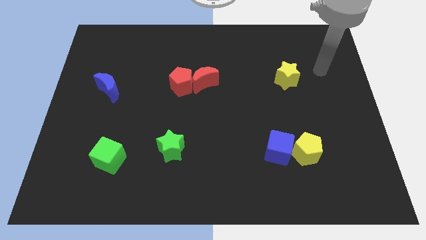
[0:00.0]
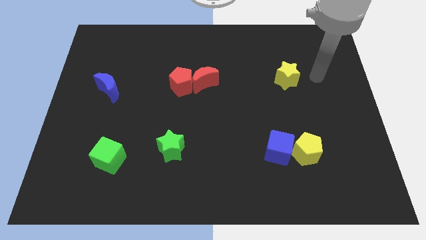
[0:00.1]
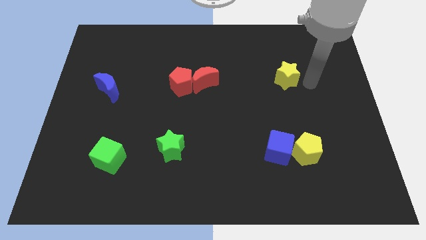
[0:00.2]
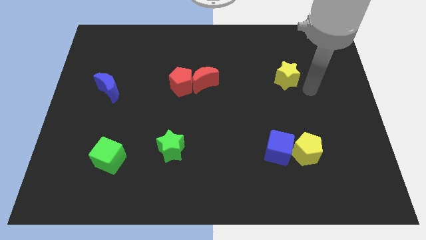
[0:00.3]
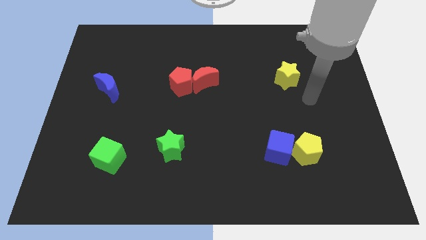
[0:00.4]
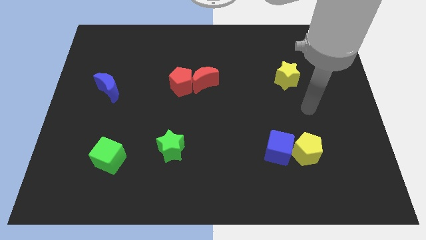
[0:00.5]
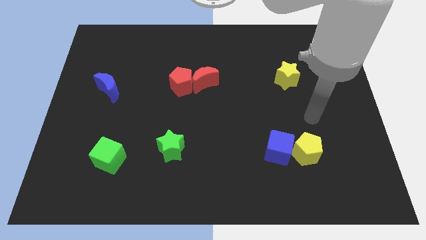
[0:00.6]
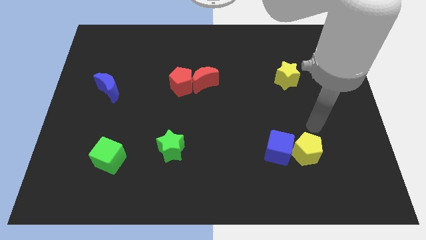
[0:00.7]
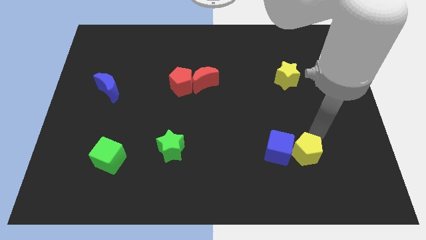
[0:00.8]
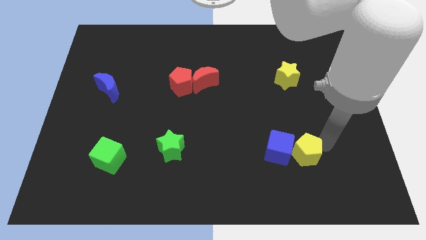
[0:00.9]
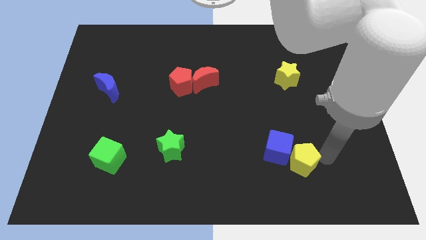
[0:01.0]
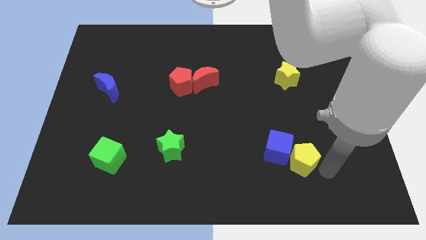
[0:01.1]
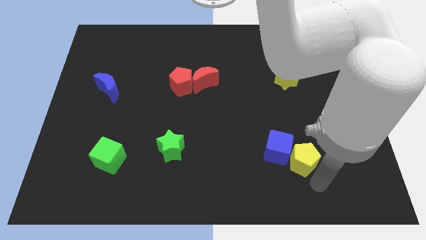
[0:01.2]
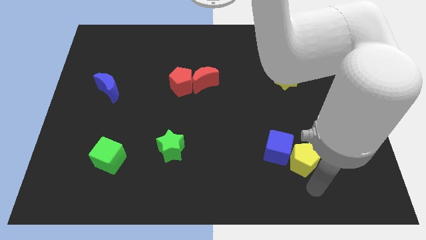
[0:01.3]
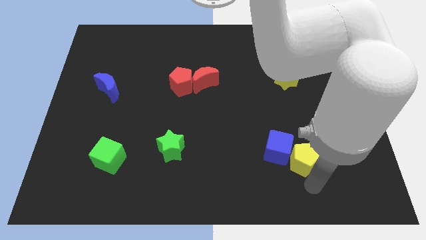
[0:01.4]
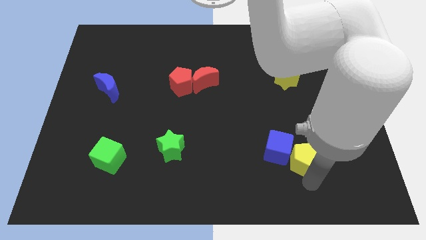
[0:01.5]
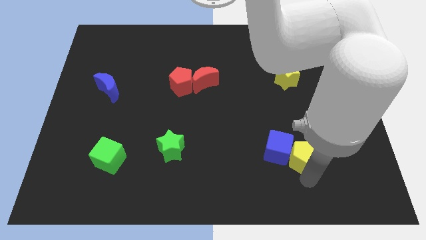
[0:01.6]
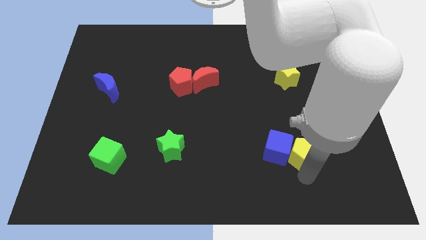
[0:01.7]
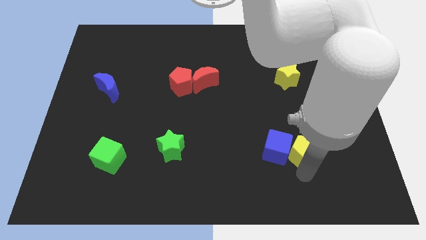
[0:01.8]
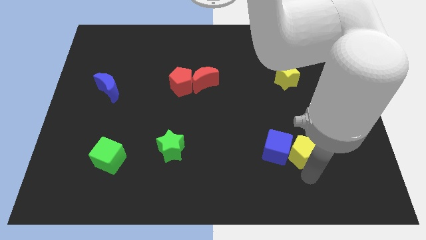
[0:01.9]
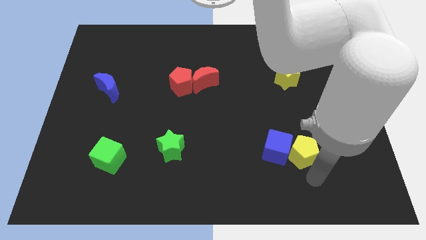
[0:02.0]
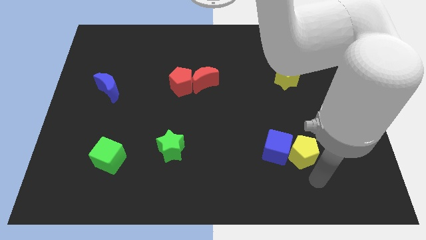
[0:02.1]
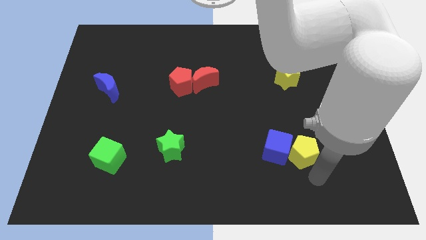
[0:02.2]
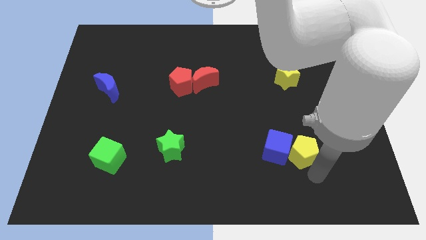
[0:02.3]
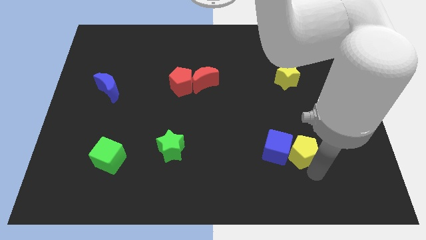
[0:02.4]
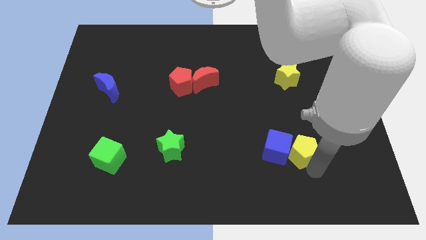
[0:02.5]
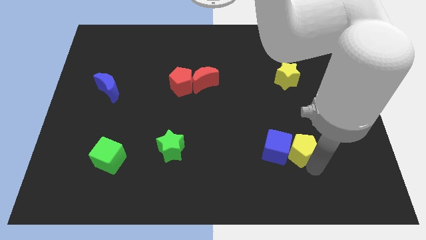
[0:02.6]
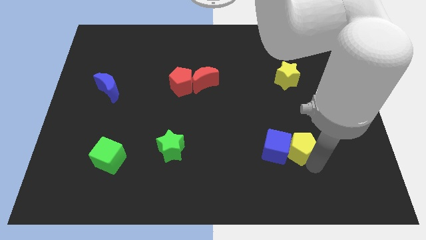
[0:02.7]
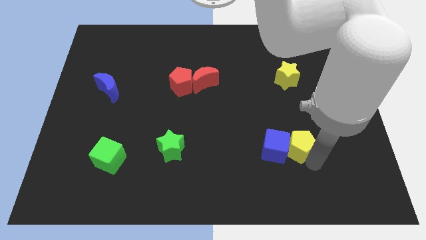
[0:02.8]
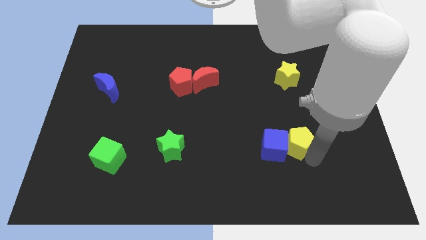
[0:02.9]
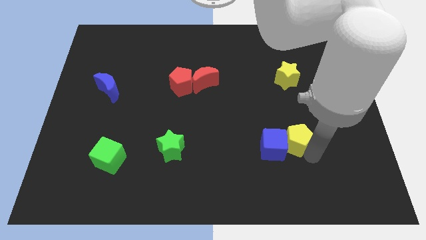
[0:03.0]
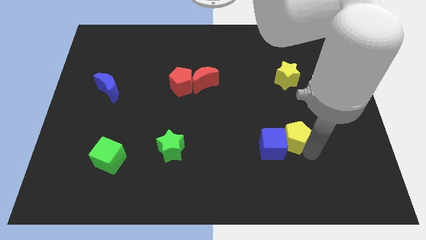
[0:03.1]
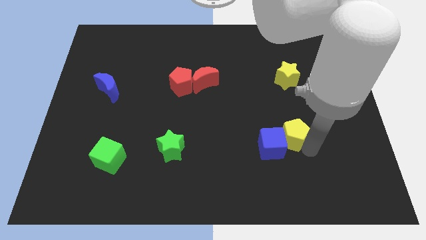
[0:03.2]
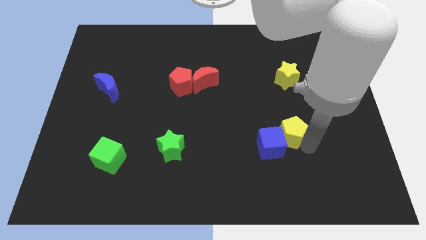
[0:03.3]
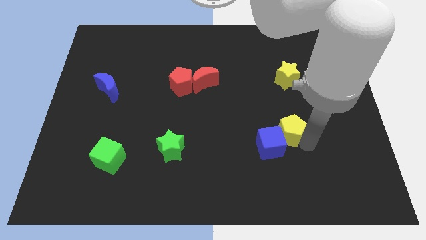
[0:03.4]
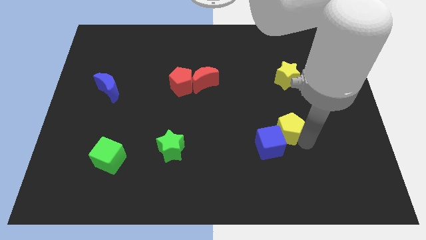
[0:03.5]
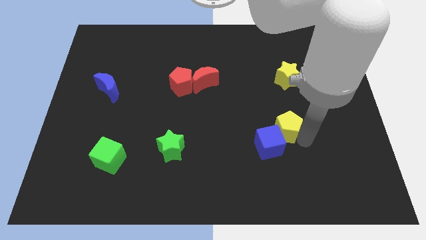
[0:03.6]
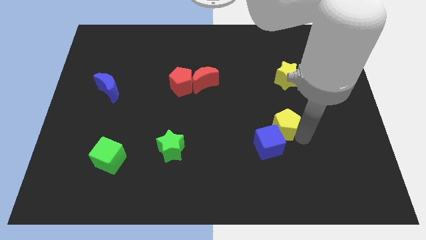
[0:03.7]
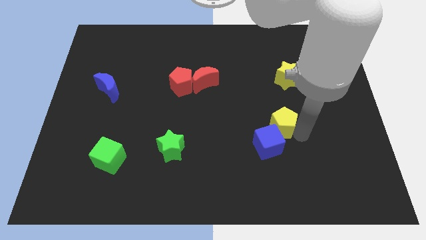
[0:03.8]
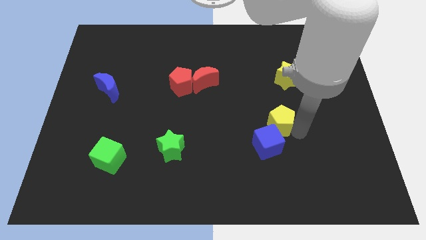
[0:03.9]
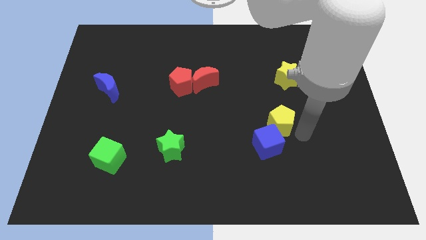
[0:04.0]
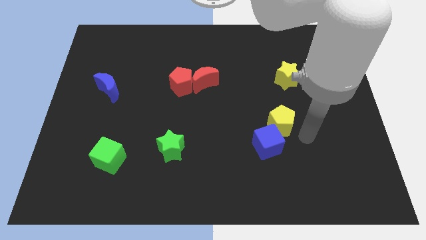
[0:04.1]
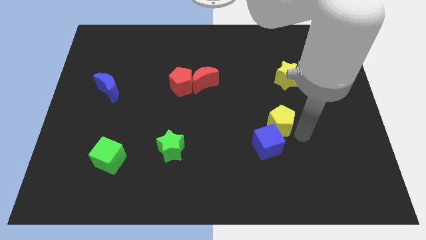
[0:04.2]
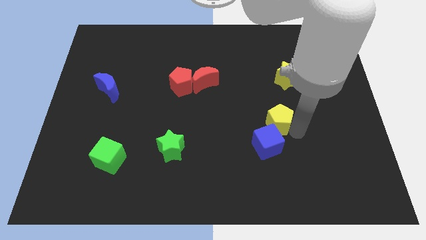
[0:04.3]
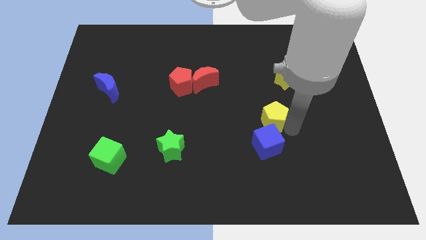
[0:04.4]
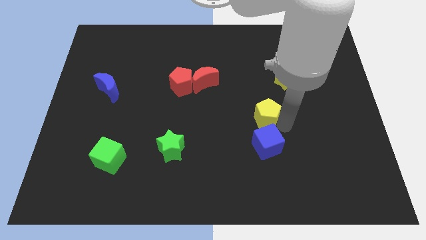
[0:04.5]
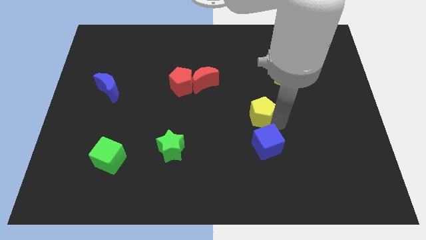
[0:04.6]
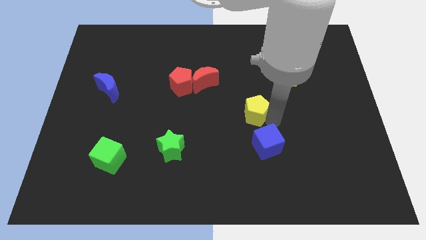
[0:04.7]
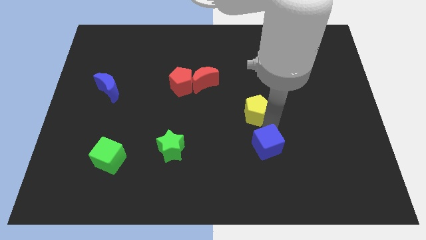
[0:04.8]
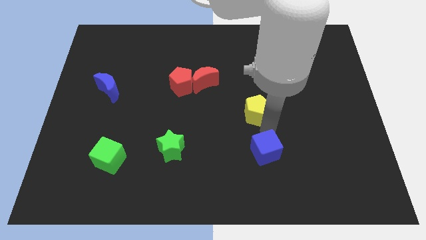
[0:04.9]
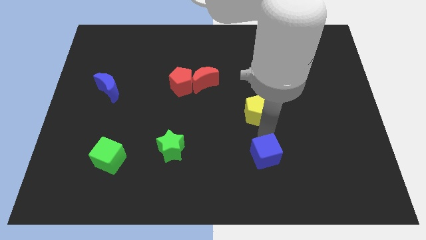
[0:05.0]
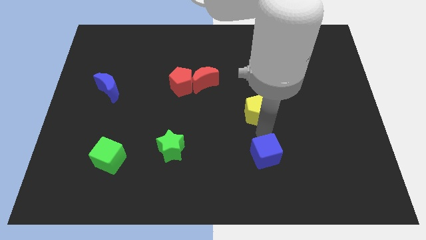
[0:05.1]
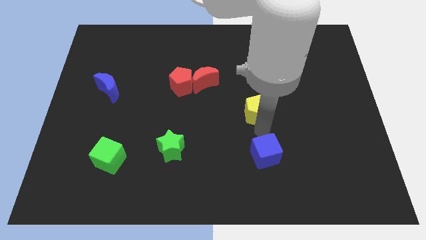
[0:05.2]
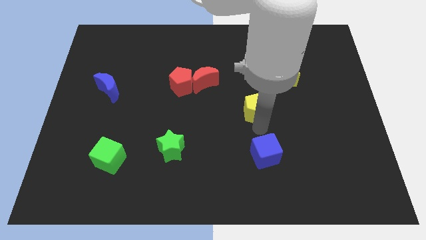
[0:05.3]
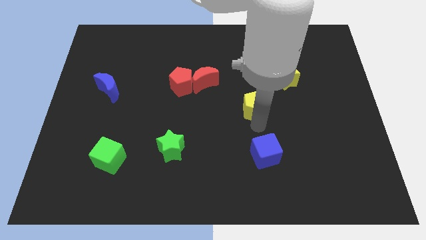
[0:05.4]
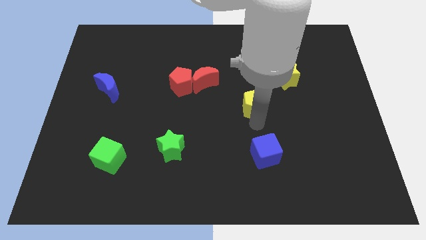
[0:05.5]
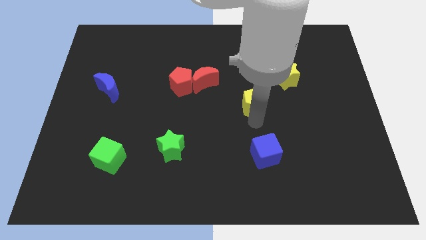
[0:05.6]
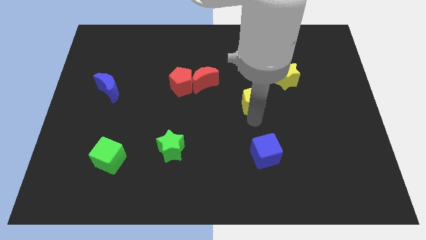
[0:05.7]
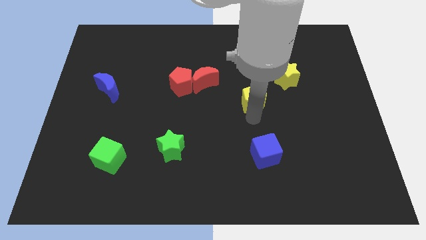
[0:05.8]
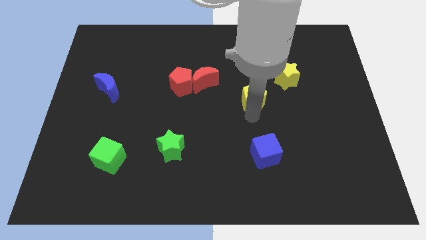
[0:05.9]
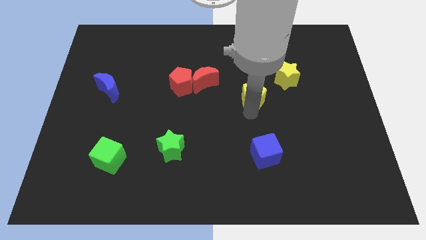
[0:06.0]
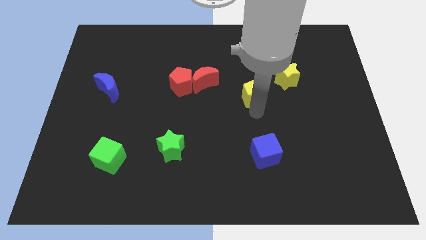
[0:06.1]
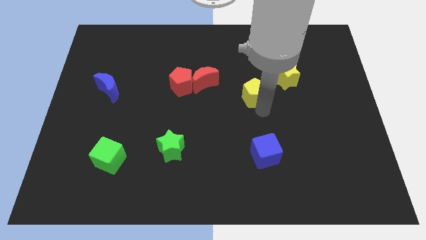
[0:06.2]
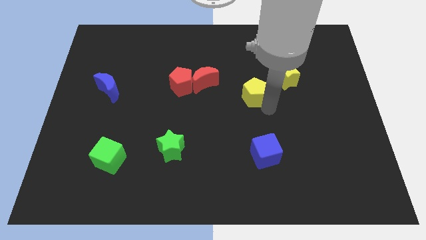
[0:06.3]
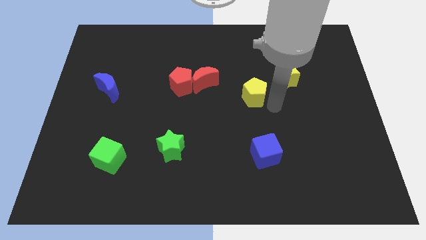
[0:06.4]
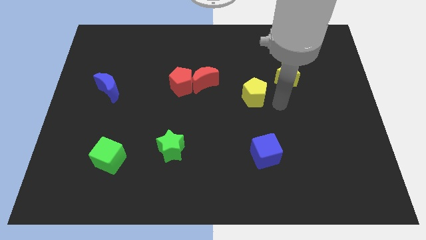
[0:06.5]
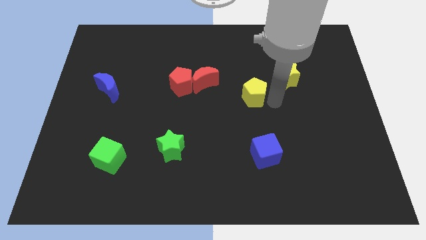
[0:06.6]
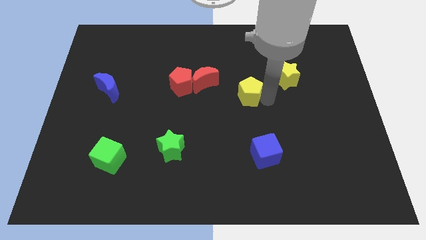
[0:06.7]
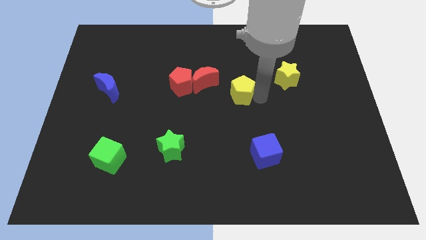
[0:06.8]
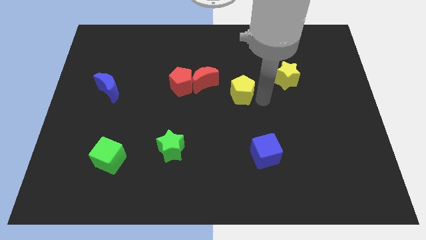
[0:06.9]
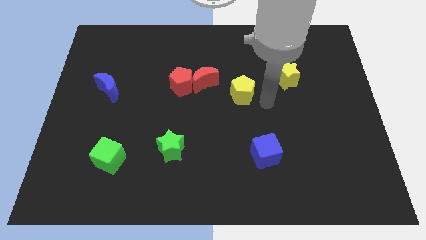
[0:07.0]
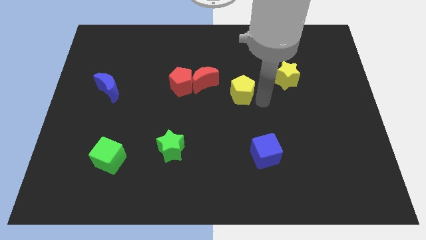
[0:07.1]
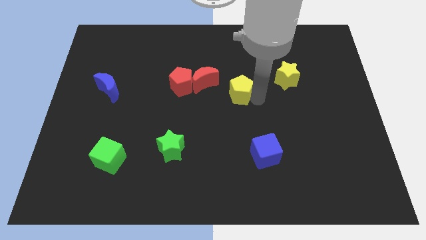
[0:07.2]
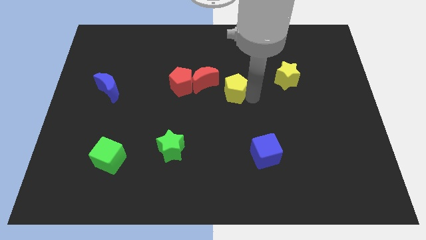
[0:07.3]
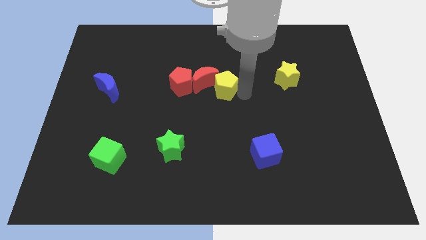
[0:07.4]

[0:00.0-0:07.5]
put the yellow pentagon close to the red moon

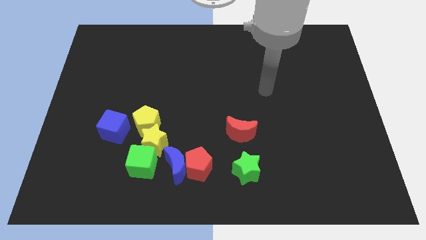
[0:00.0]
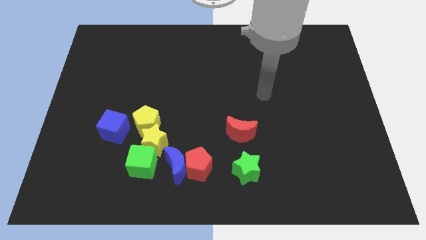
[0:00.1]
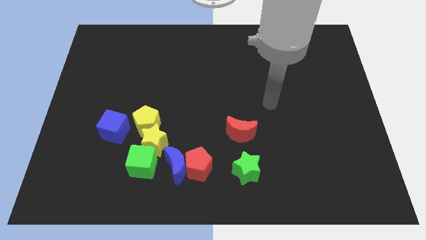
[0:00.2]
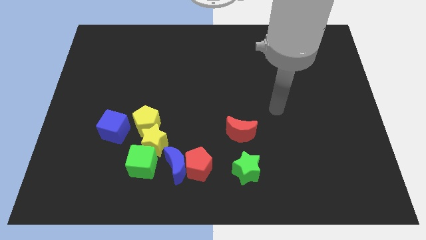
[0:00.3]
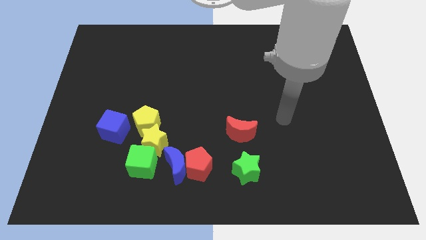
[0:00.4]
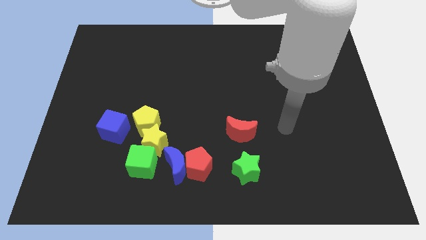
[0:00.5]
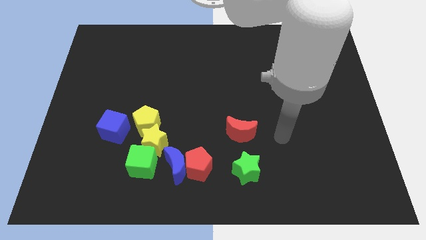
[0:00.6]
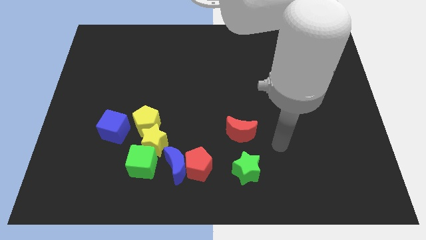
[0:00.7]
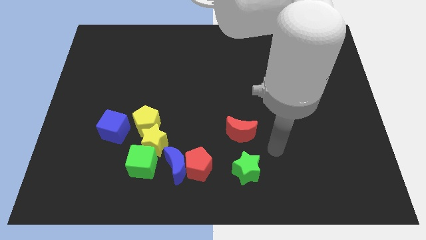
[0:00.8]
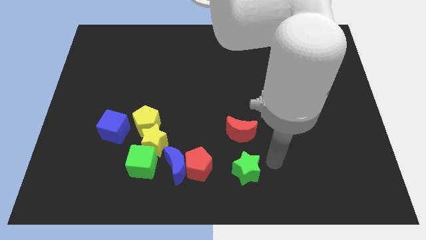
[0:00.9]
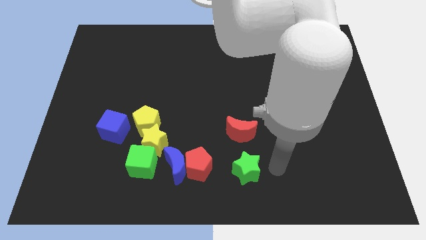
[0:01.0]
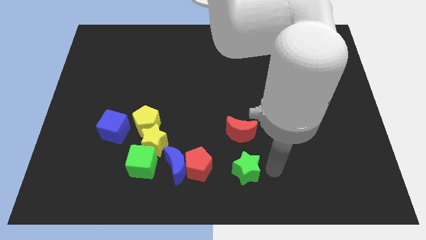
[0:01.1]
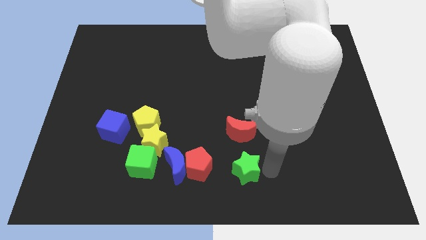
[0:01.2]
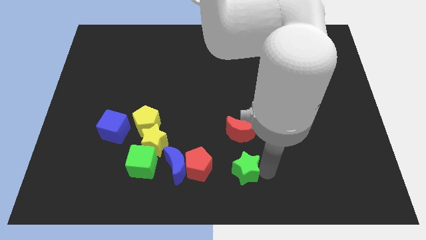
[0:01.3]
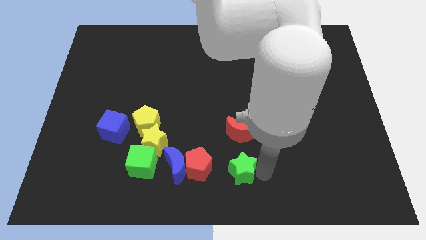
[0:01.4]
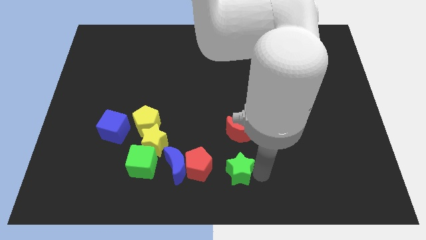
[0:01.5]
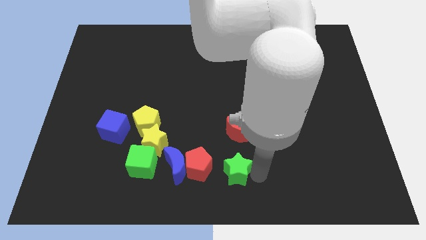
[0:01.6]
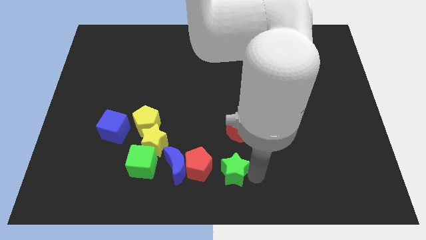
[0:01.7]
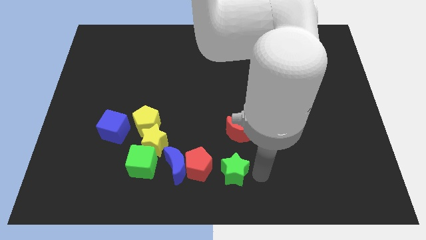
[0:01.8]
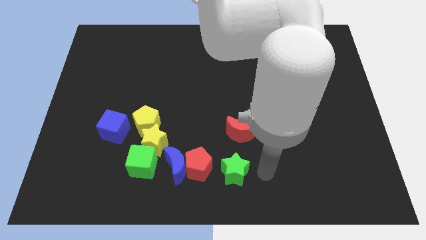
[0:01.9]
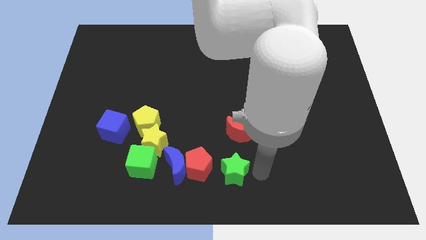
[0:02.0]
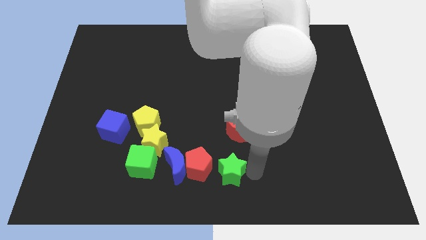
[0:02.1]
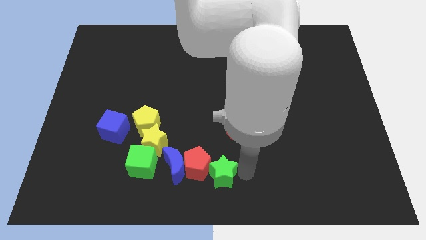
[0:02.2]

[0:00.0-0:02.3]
move the green star next to the red pentagon
